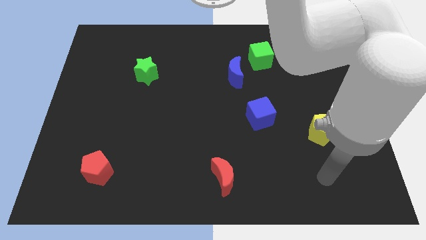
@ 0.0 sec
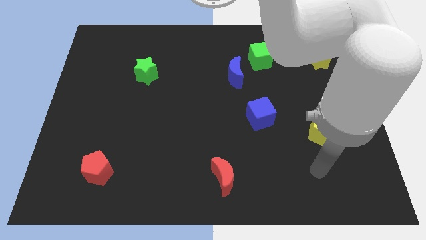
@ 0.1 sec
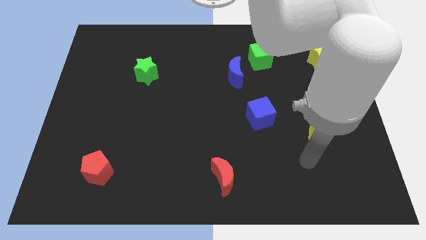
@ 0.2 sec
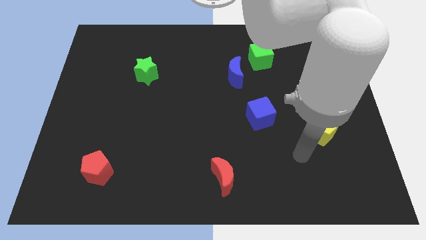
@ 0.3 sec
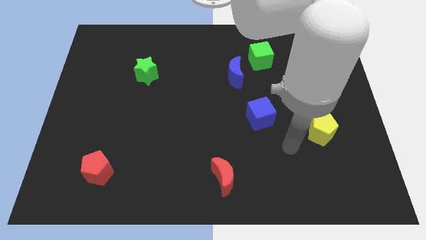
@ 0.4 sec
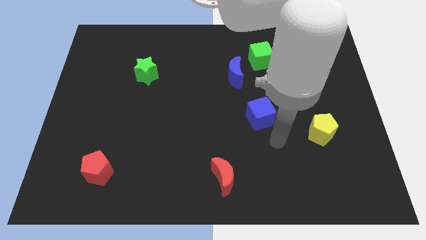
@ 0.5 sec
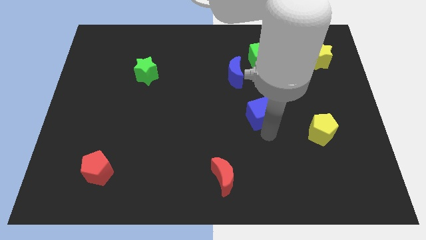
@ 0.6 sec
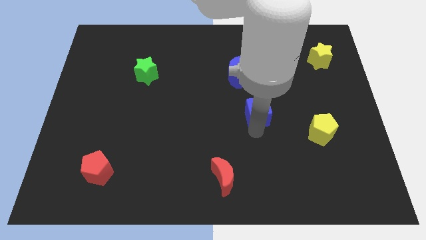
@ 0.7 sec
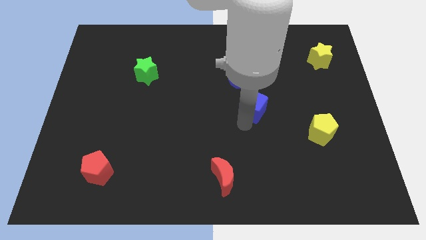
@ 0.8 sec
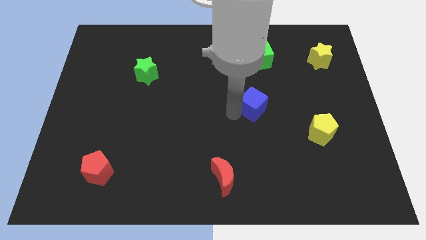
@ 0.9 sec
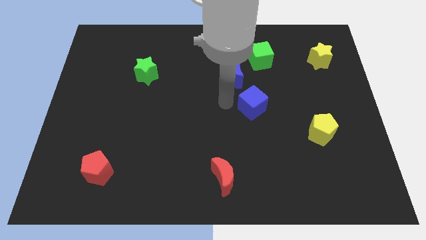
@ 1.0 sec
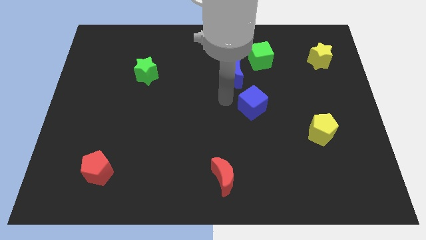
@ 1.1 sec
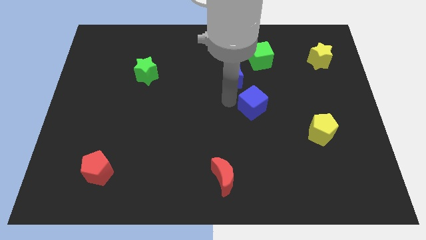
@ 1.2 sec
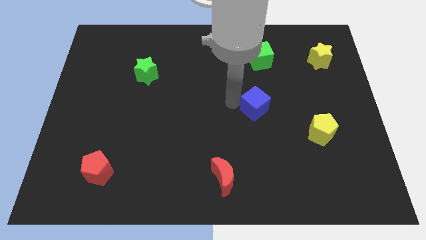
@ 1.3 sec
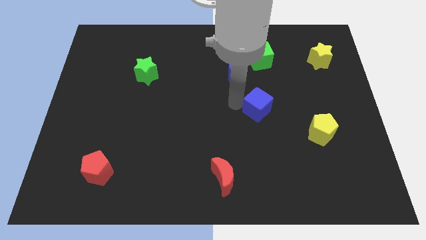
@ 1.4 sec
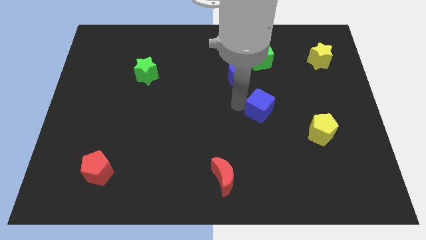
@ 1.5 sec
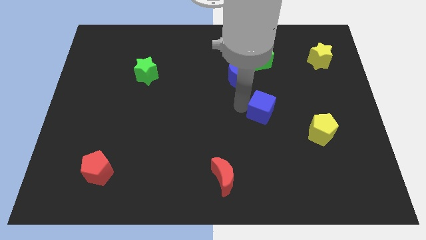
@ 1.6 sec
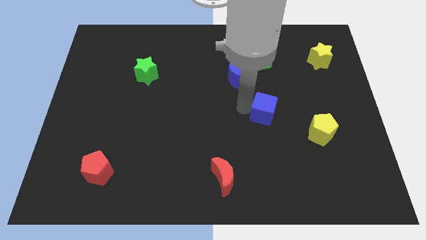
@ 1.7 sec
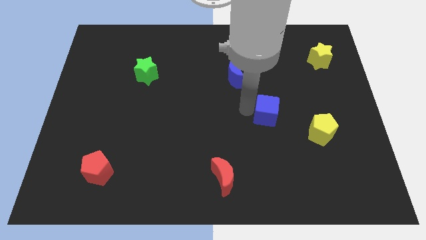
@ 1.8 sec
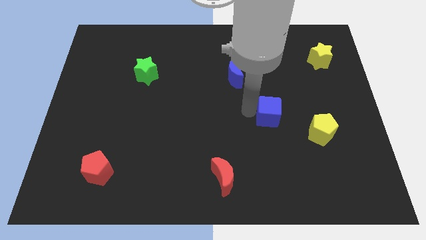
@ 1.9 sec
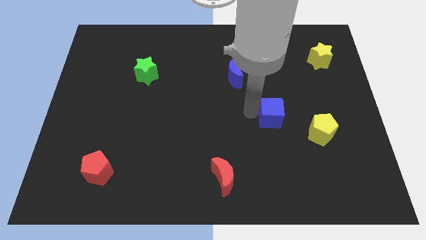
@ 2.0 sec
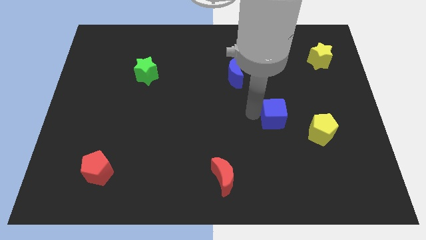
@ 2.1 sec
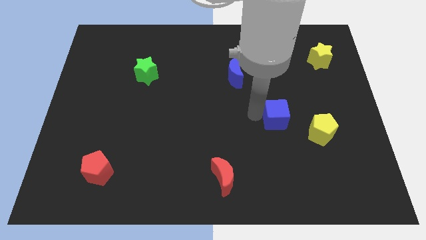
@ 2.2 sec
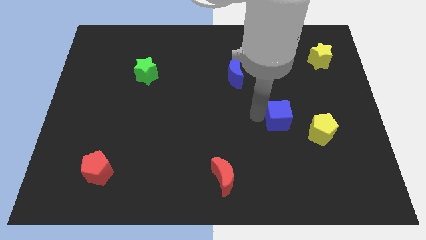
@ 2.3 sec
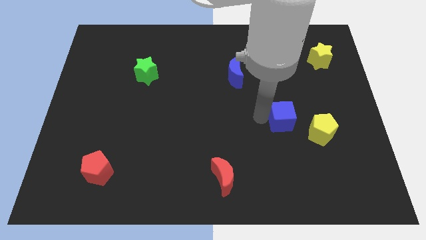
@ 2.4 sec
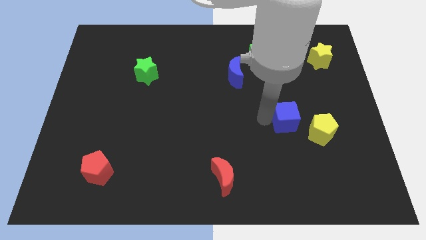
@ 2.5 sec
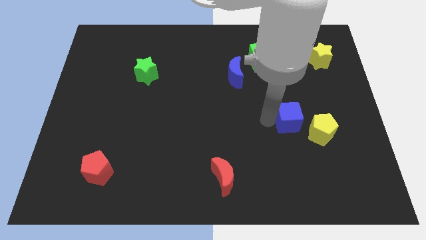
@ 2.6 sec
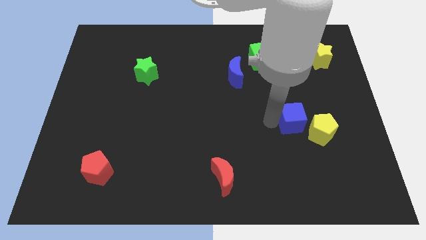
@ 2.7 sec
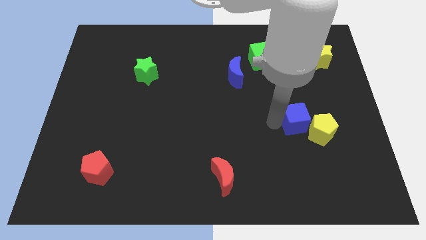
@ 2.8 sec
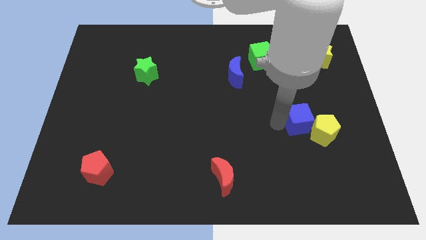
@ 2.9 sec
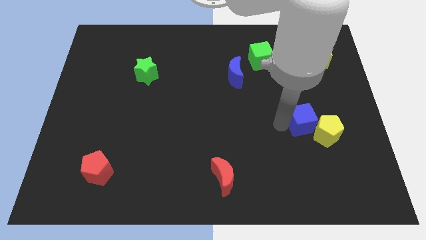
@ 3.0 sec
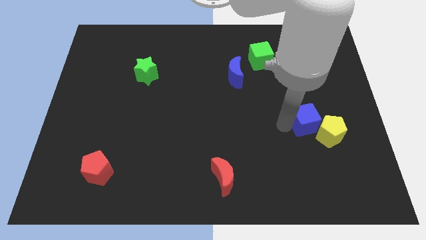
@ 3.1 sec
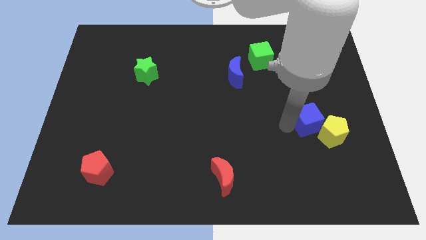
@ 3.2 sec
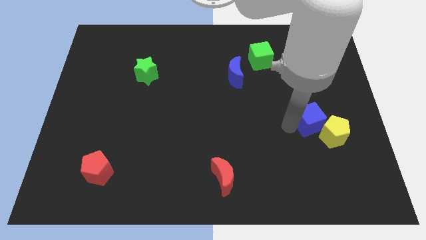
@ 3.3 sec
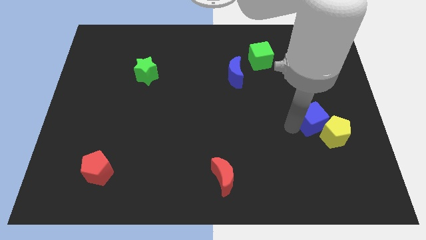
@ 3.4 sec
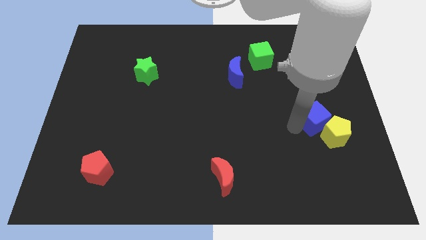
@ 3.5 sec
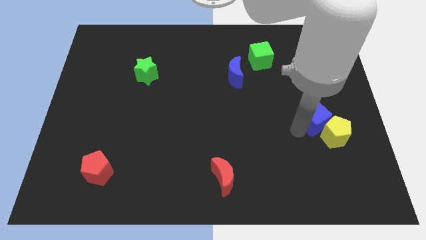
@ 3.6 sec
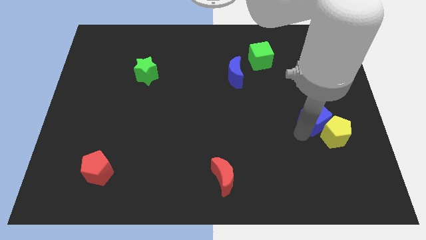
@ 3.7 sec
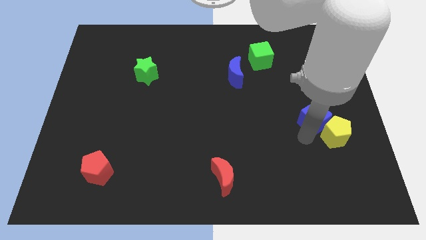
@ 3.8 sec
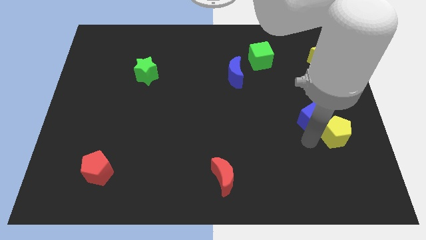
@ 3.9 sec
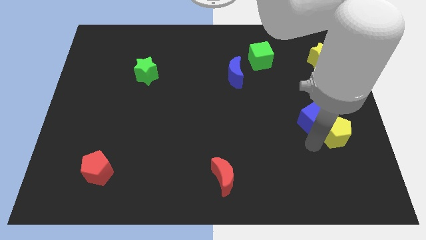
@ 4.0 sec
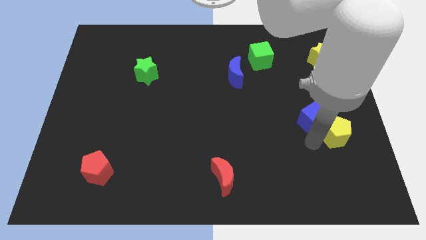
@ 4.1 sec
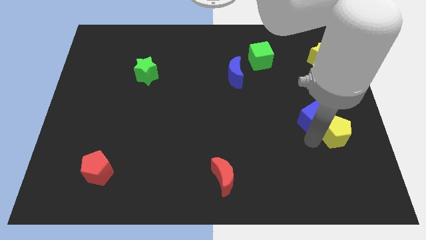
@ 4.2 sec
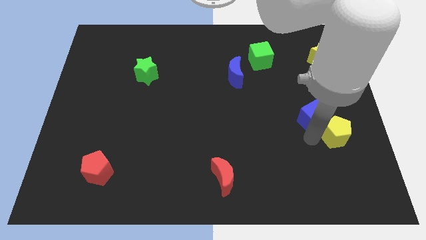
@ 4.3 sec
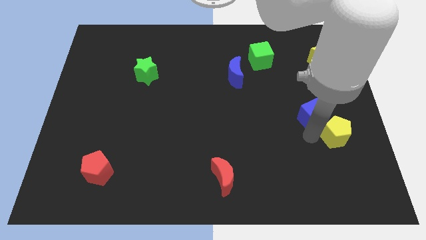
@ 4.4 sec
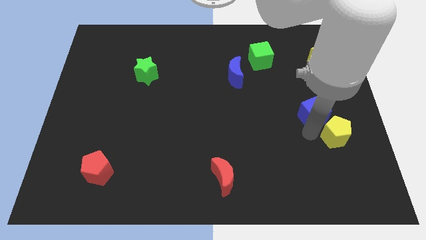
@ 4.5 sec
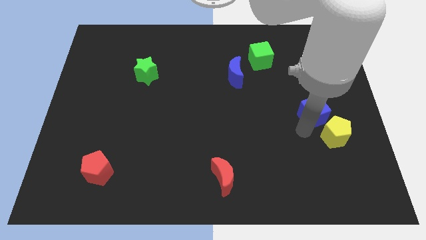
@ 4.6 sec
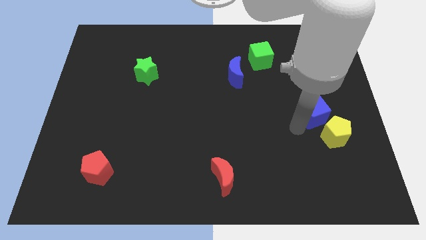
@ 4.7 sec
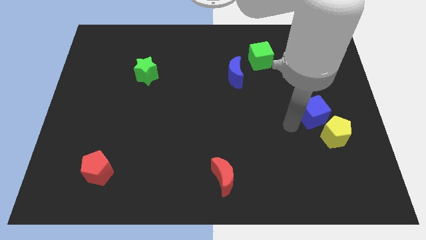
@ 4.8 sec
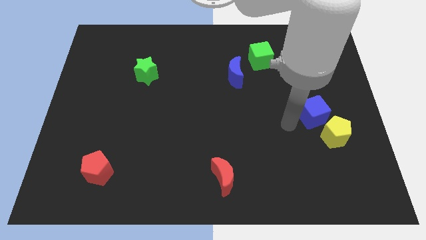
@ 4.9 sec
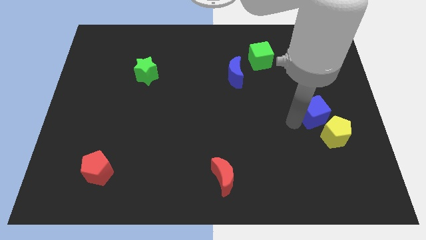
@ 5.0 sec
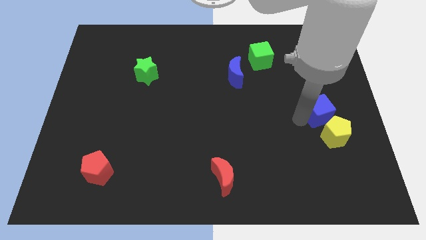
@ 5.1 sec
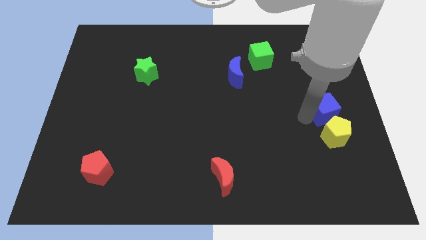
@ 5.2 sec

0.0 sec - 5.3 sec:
put the blue cube to the center right

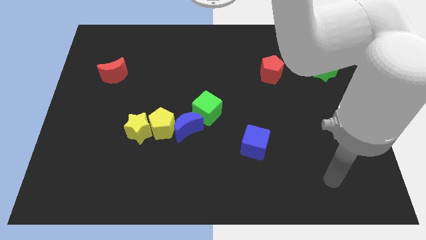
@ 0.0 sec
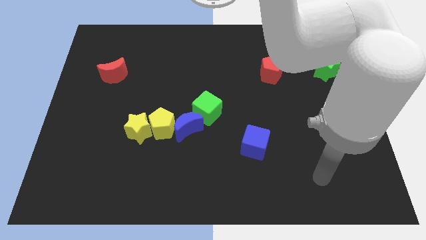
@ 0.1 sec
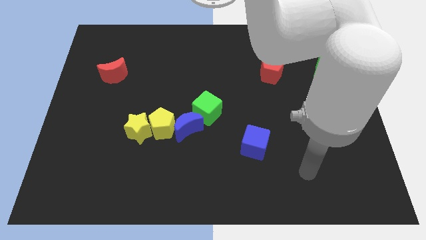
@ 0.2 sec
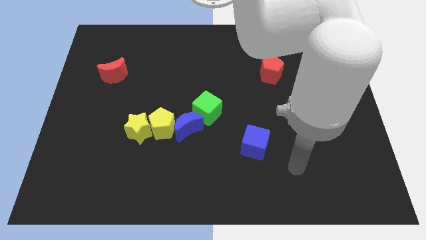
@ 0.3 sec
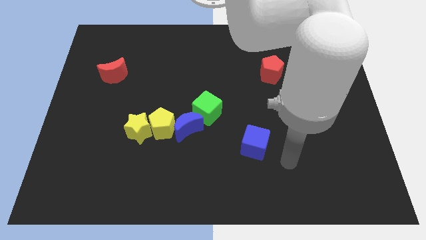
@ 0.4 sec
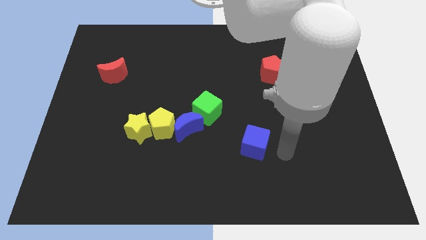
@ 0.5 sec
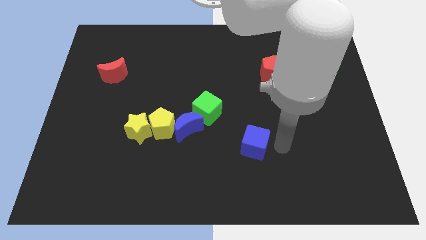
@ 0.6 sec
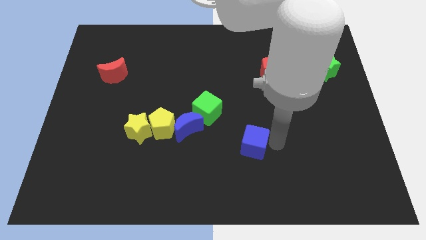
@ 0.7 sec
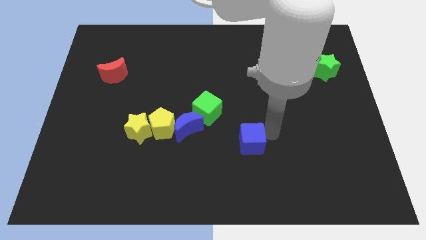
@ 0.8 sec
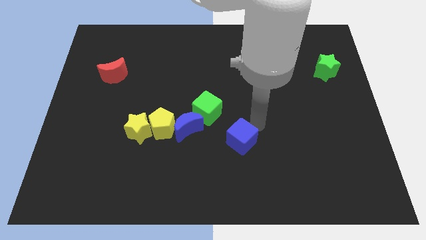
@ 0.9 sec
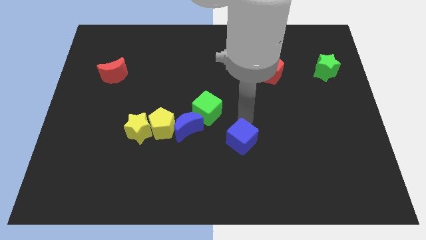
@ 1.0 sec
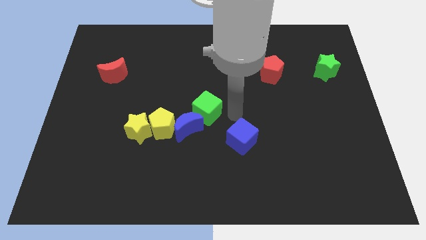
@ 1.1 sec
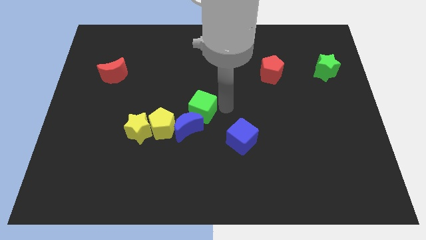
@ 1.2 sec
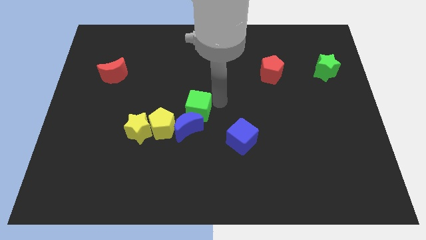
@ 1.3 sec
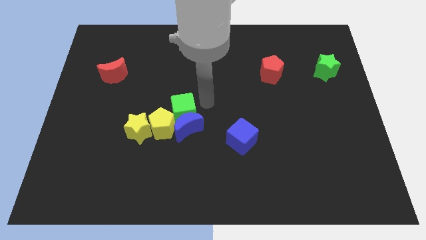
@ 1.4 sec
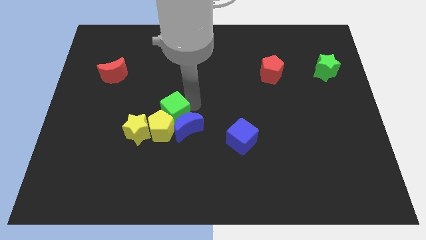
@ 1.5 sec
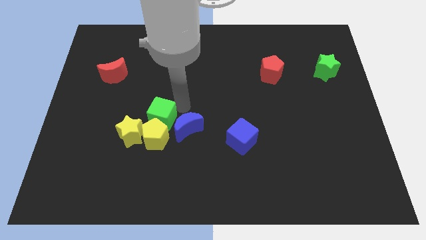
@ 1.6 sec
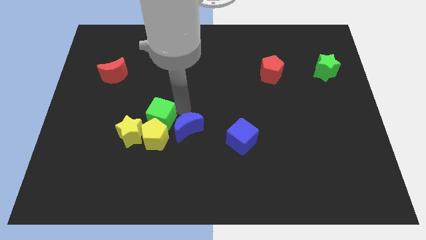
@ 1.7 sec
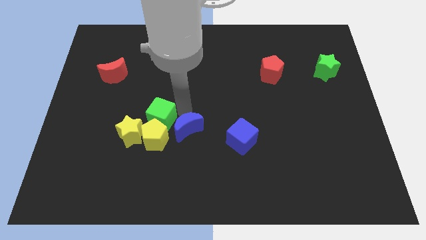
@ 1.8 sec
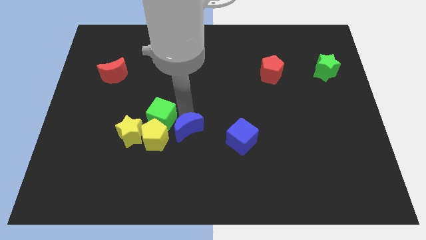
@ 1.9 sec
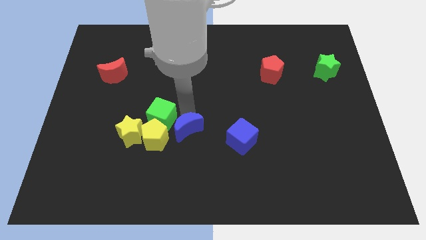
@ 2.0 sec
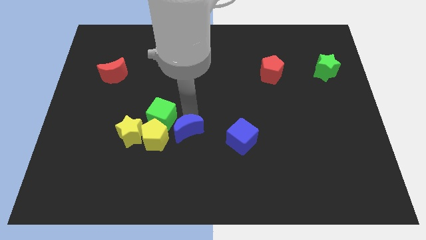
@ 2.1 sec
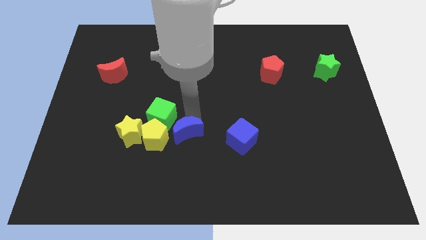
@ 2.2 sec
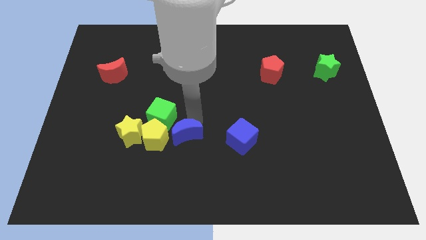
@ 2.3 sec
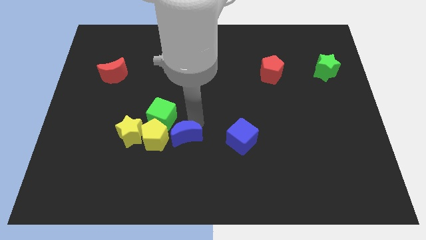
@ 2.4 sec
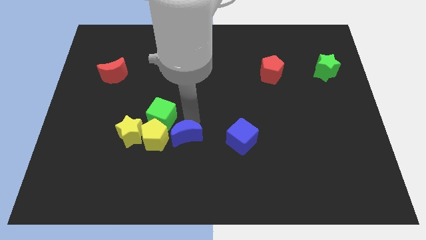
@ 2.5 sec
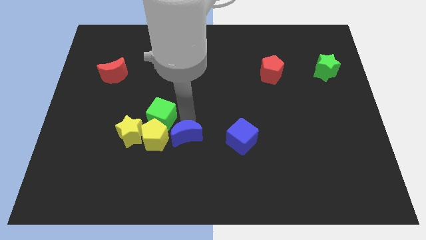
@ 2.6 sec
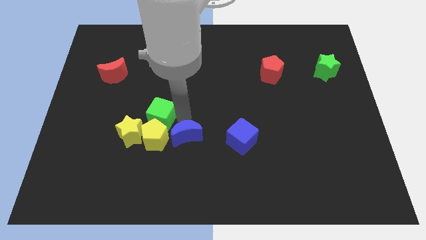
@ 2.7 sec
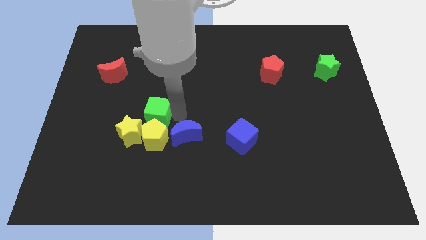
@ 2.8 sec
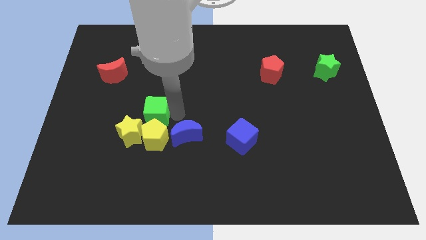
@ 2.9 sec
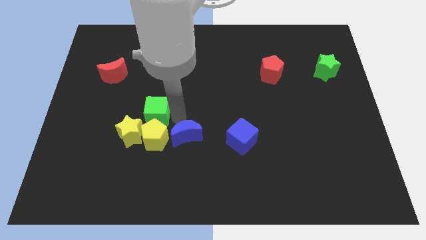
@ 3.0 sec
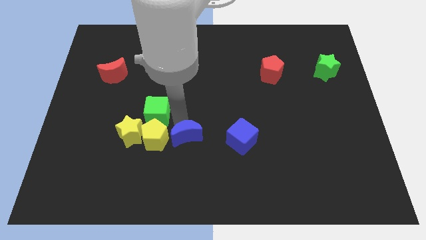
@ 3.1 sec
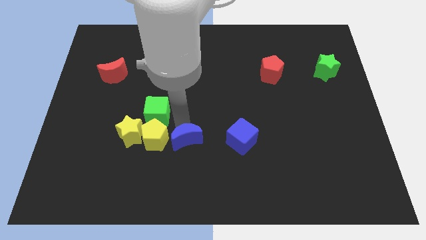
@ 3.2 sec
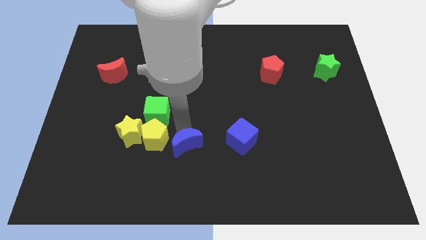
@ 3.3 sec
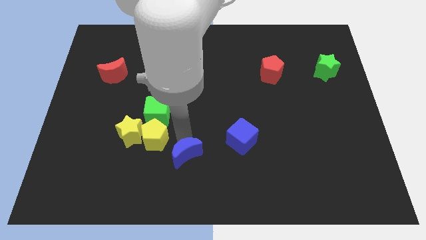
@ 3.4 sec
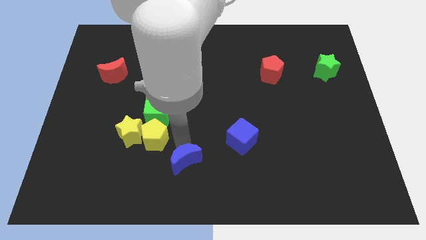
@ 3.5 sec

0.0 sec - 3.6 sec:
push the blue moon to the bottom side
